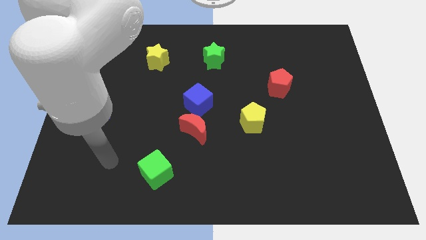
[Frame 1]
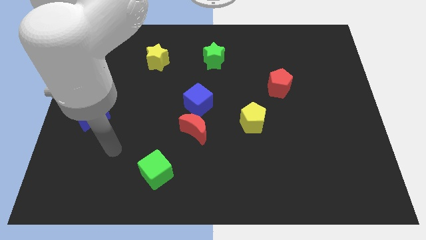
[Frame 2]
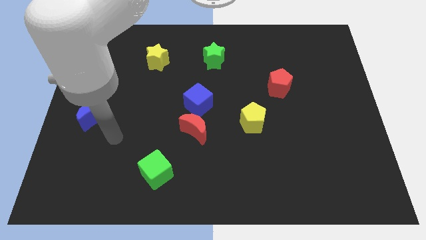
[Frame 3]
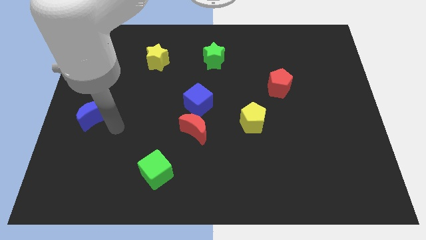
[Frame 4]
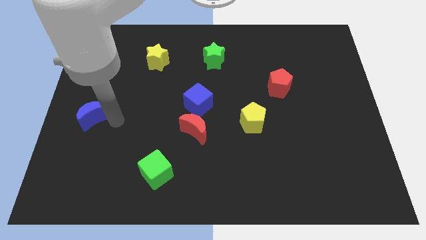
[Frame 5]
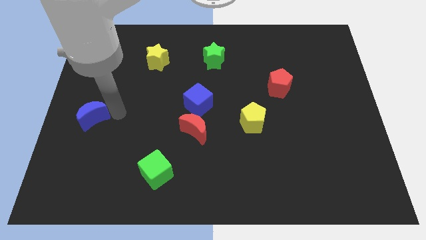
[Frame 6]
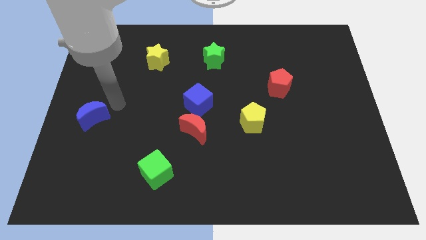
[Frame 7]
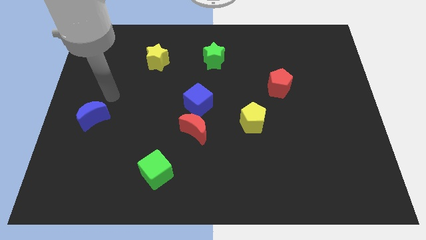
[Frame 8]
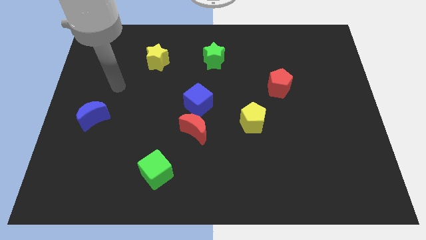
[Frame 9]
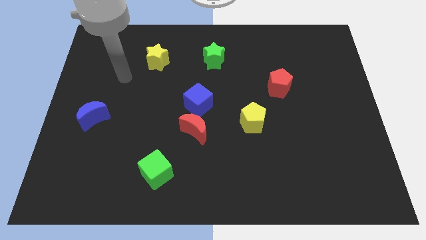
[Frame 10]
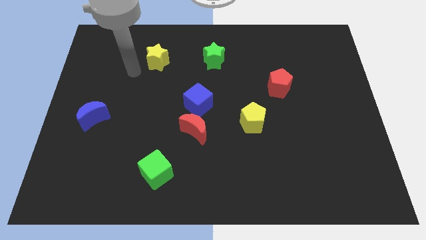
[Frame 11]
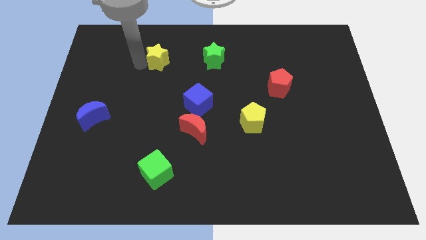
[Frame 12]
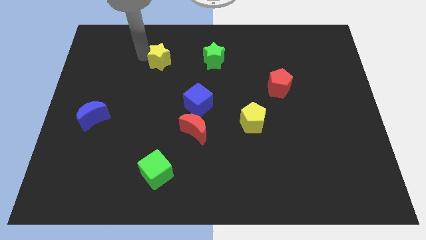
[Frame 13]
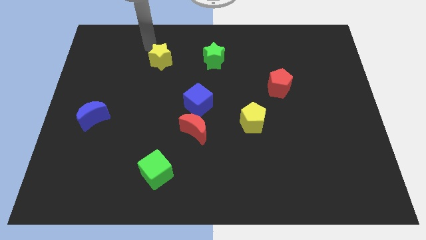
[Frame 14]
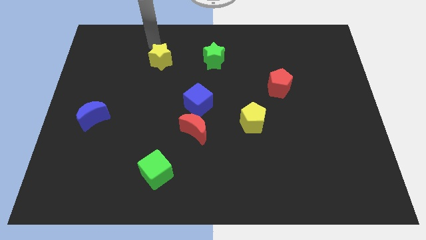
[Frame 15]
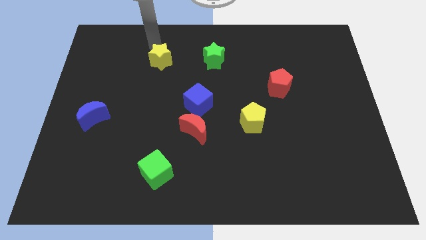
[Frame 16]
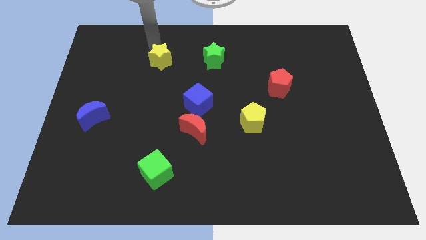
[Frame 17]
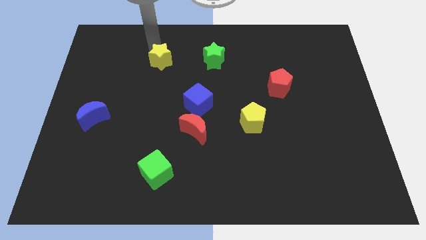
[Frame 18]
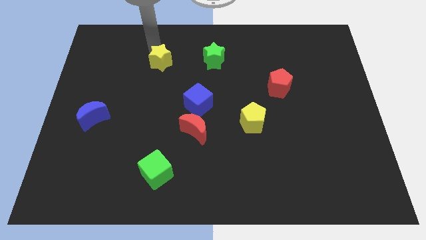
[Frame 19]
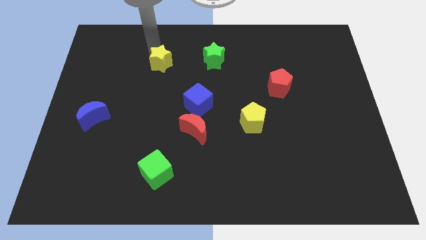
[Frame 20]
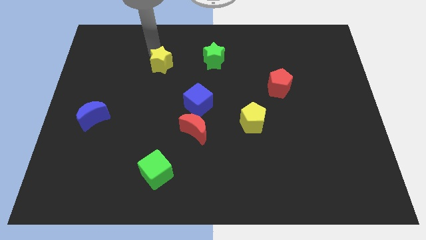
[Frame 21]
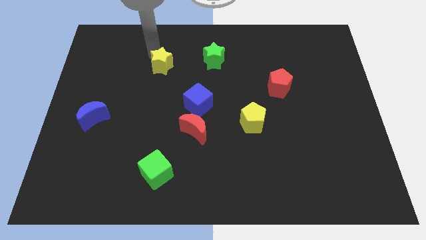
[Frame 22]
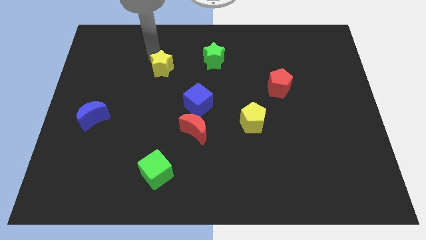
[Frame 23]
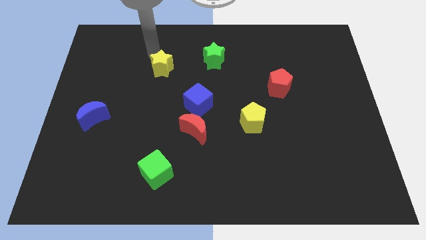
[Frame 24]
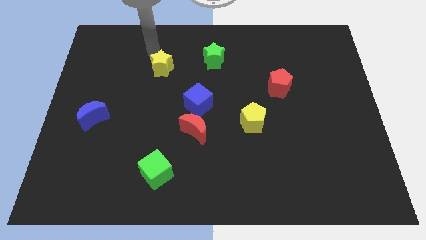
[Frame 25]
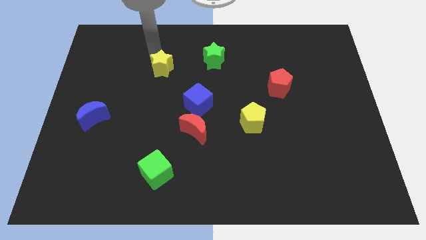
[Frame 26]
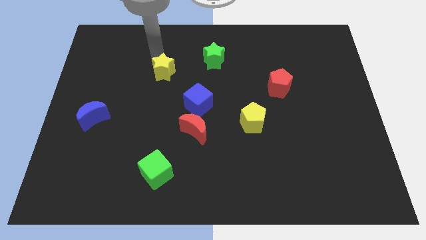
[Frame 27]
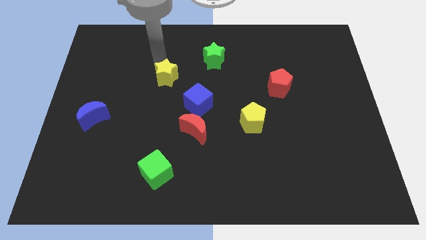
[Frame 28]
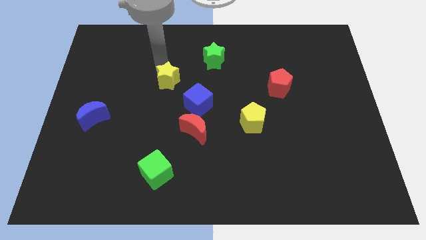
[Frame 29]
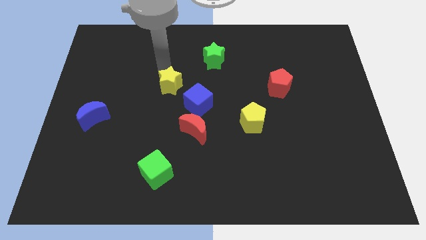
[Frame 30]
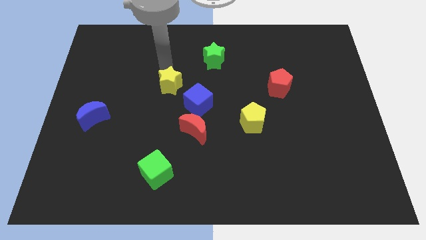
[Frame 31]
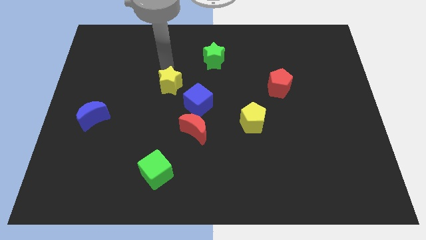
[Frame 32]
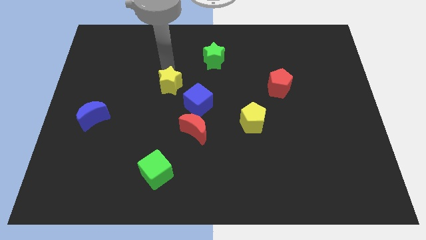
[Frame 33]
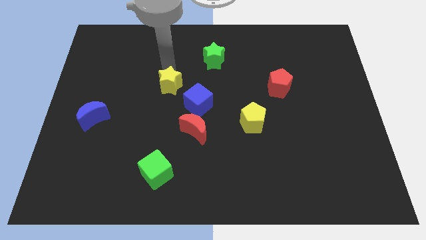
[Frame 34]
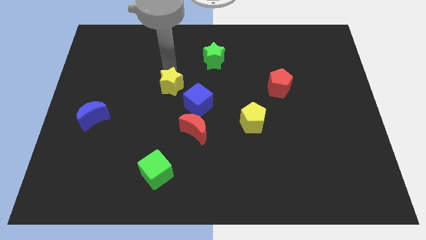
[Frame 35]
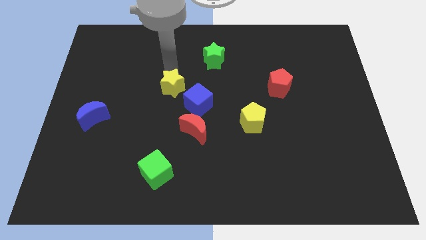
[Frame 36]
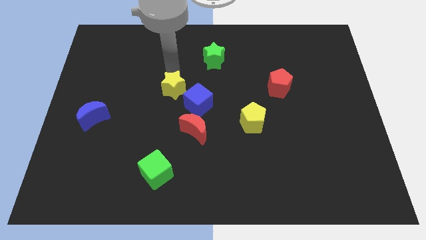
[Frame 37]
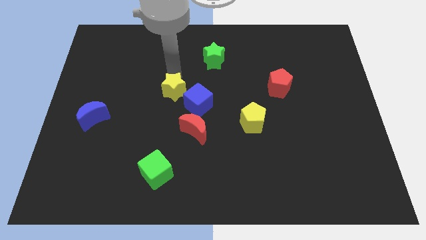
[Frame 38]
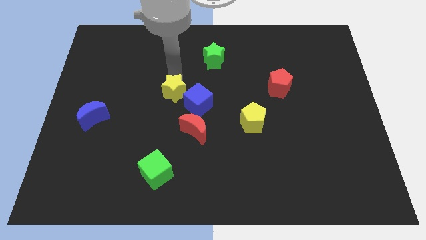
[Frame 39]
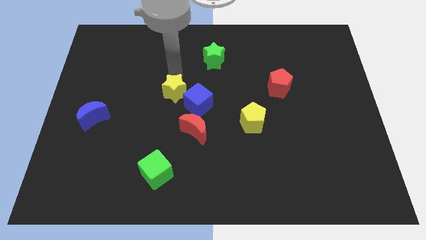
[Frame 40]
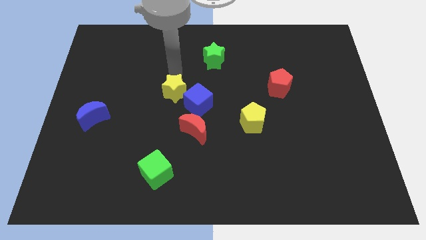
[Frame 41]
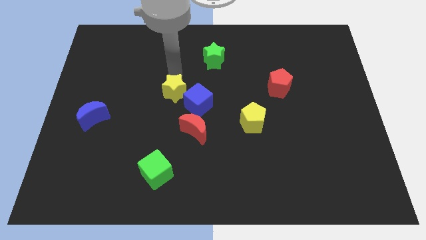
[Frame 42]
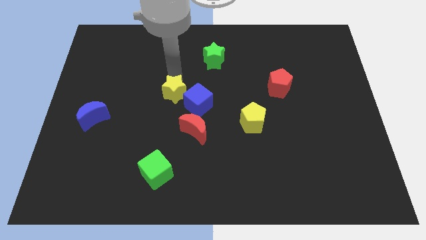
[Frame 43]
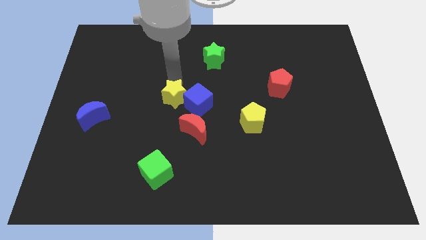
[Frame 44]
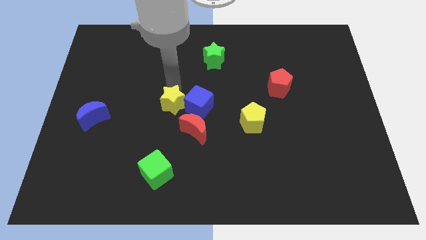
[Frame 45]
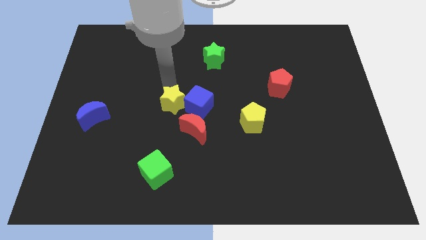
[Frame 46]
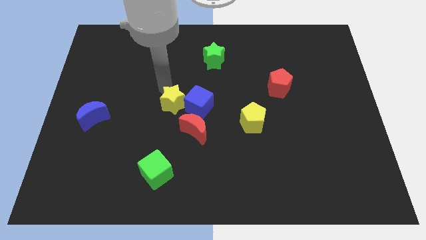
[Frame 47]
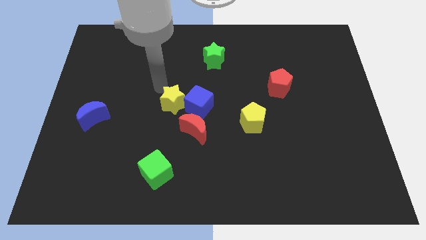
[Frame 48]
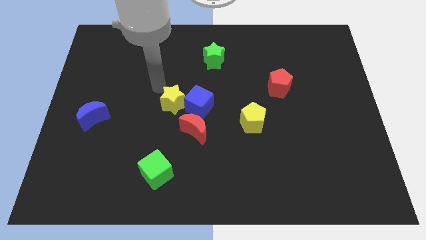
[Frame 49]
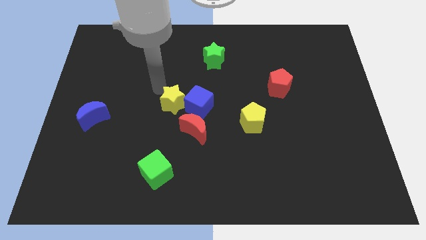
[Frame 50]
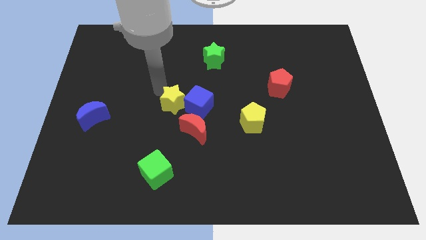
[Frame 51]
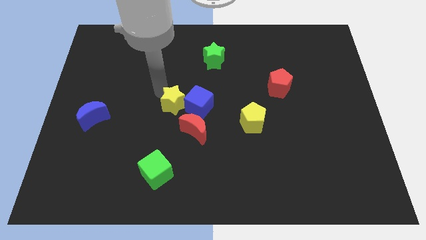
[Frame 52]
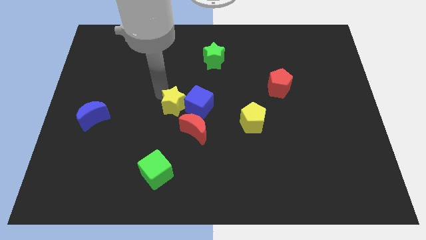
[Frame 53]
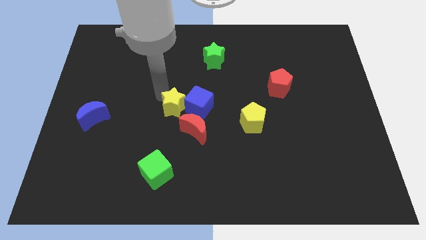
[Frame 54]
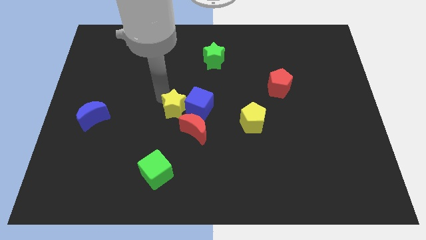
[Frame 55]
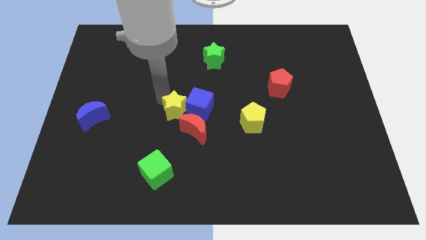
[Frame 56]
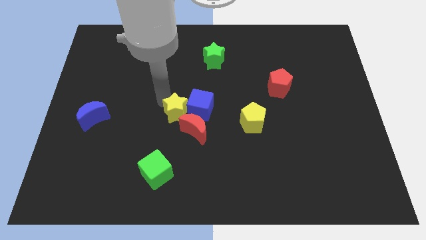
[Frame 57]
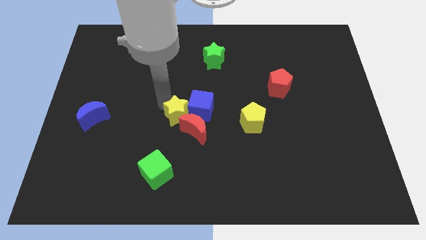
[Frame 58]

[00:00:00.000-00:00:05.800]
push the yellow star next to the red moon

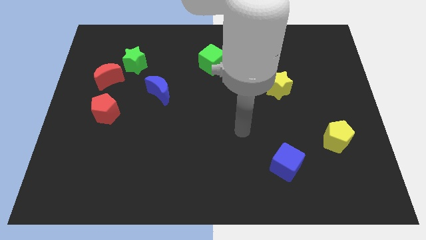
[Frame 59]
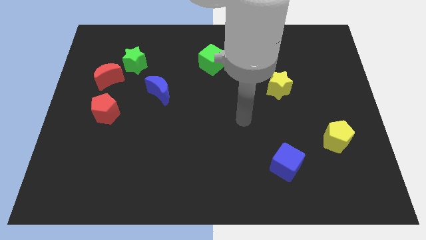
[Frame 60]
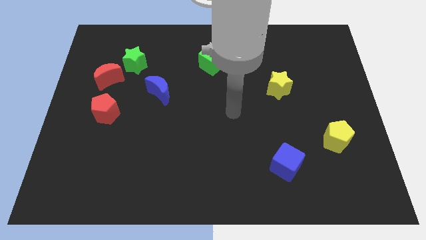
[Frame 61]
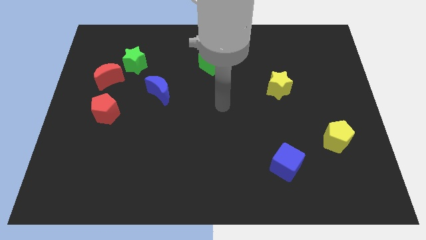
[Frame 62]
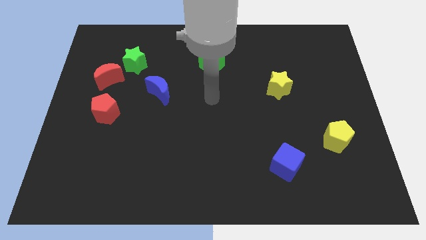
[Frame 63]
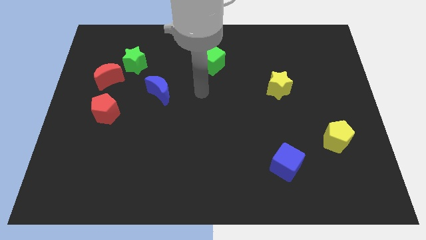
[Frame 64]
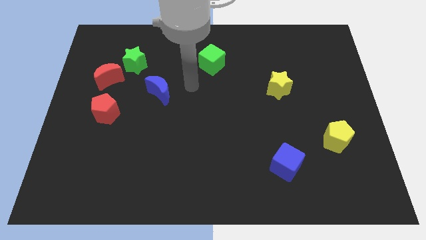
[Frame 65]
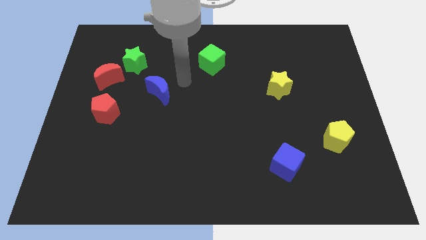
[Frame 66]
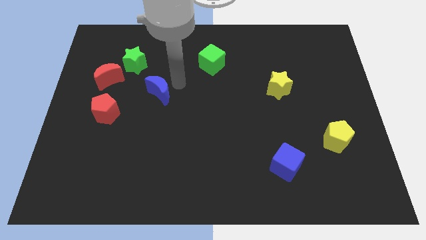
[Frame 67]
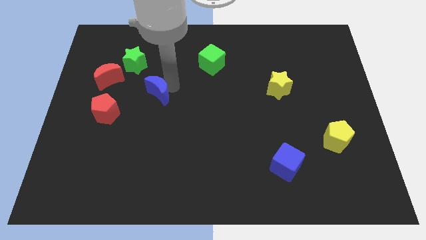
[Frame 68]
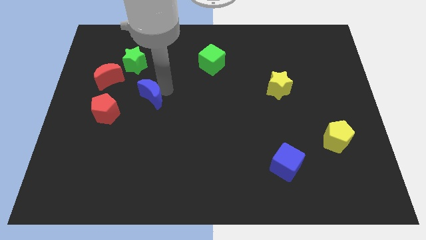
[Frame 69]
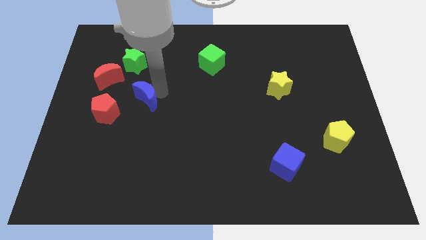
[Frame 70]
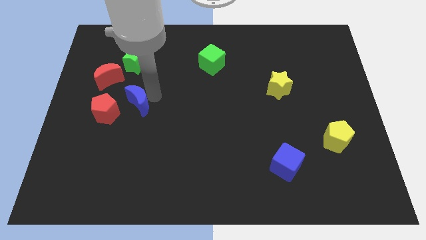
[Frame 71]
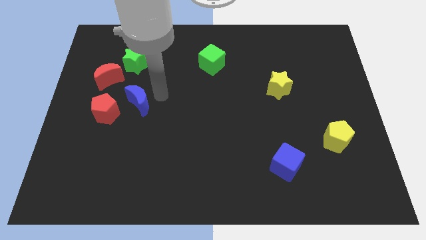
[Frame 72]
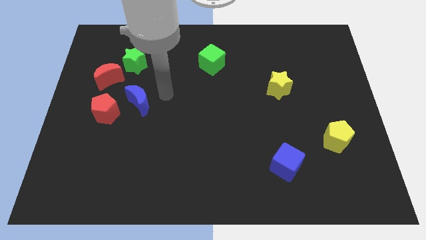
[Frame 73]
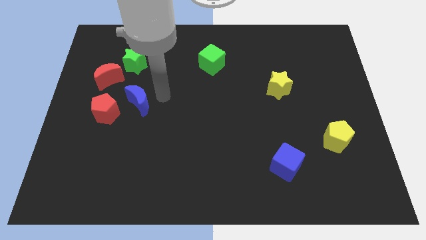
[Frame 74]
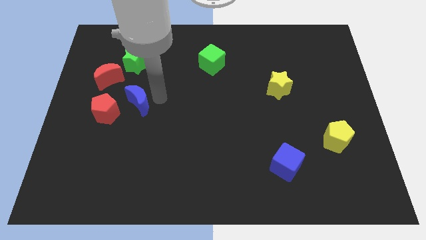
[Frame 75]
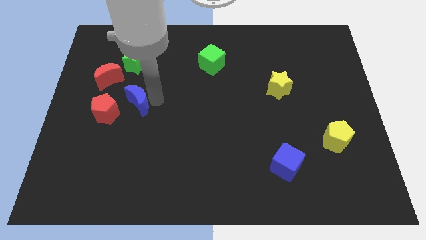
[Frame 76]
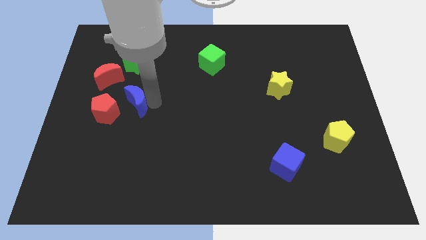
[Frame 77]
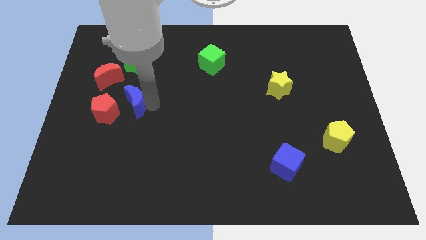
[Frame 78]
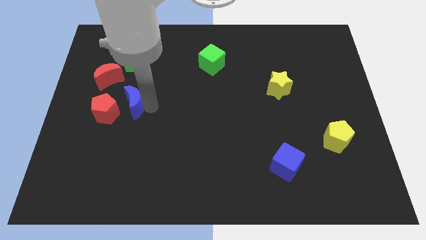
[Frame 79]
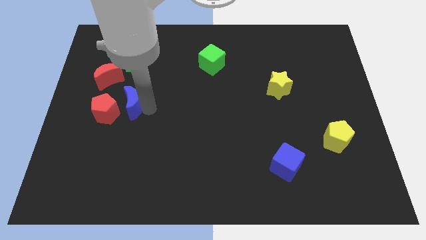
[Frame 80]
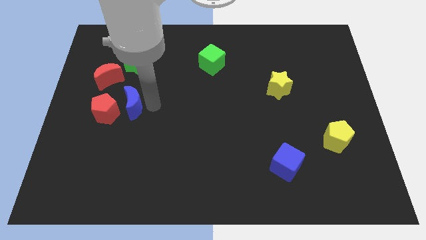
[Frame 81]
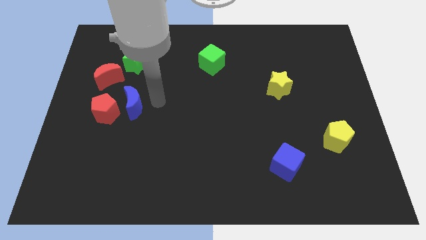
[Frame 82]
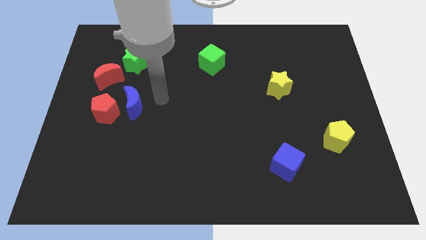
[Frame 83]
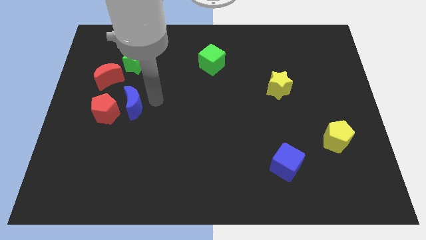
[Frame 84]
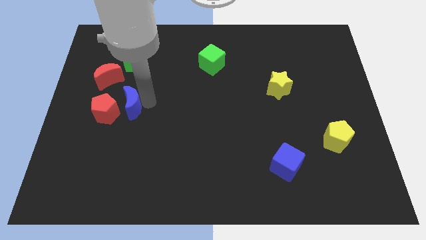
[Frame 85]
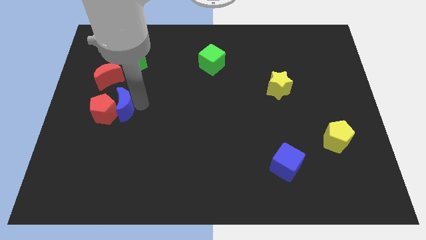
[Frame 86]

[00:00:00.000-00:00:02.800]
move the blue moon towards the red pentagon
